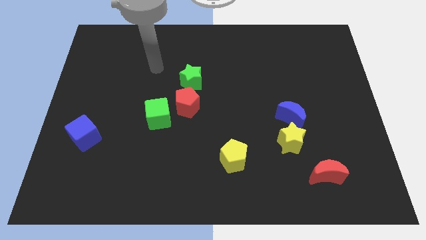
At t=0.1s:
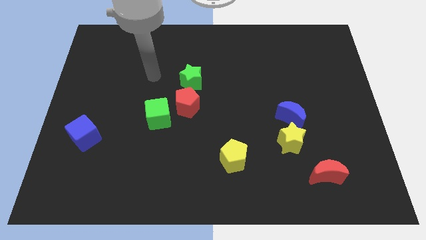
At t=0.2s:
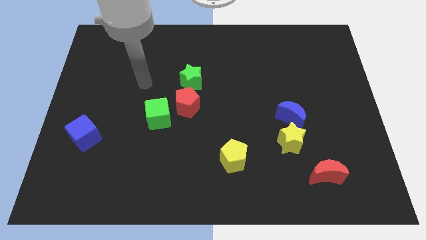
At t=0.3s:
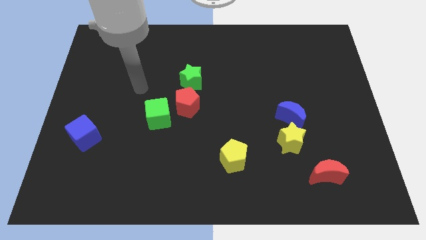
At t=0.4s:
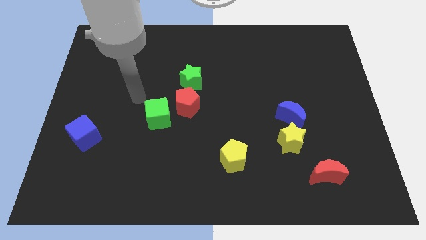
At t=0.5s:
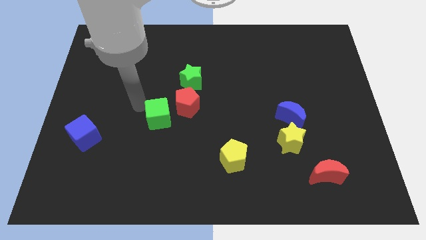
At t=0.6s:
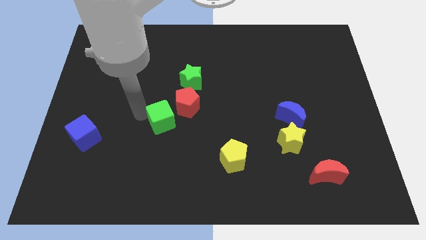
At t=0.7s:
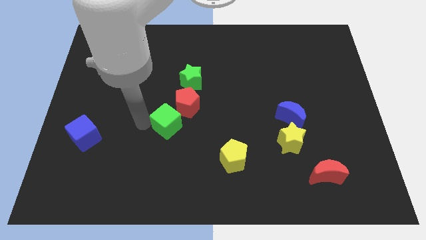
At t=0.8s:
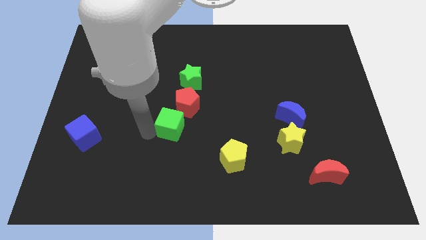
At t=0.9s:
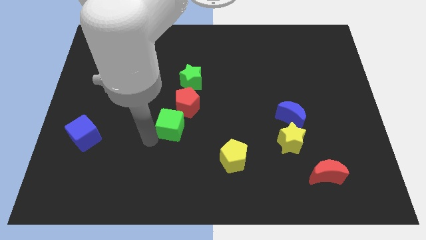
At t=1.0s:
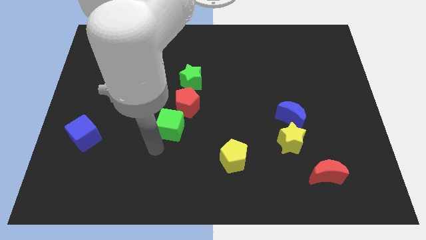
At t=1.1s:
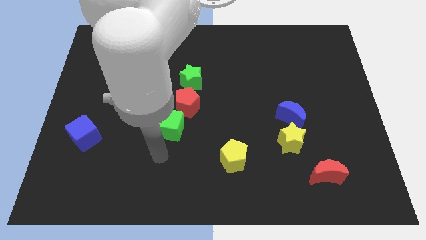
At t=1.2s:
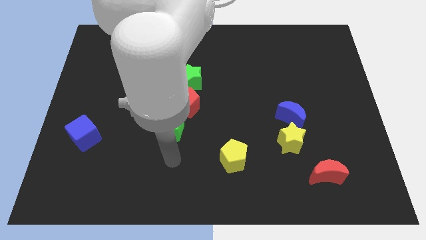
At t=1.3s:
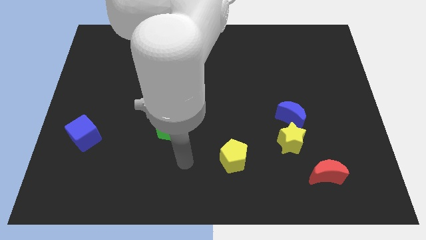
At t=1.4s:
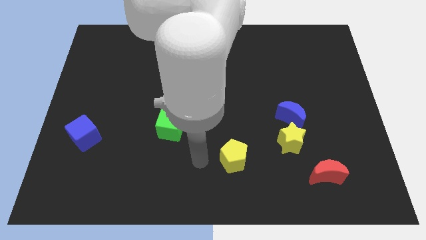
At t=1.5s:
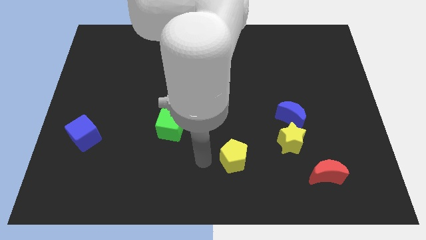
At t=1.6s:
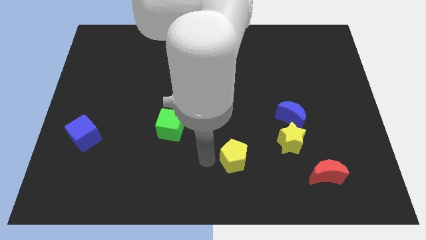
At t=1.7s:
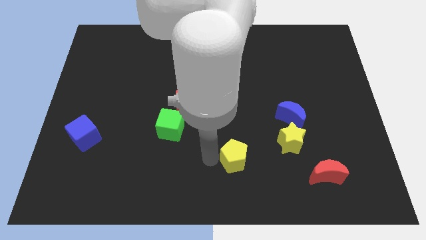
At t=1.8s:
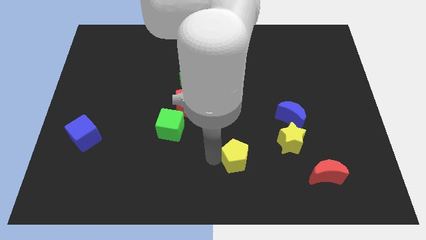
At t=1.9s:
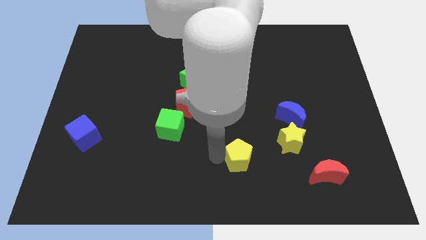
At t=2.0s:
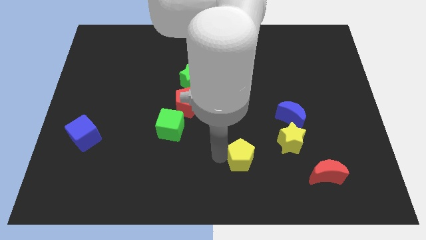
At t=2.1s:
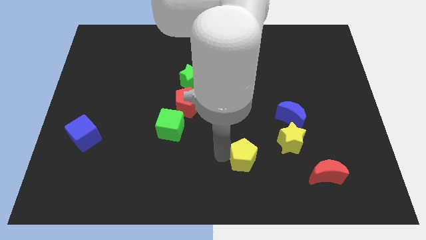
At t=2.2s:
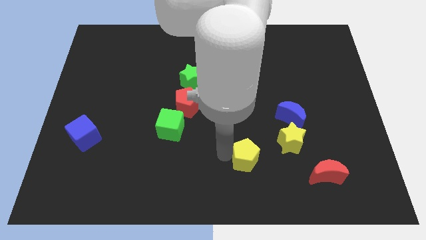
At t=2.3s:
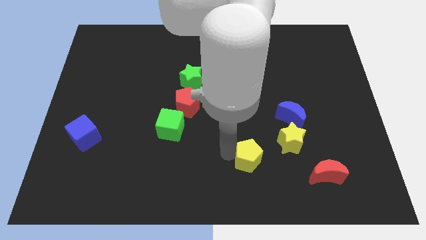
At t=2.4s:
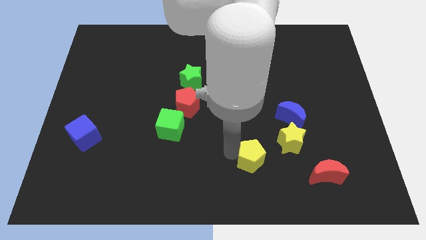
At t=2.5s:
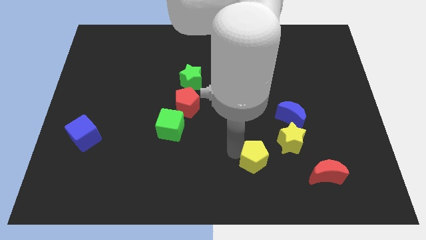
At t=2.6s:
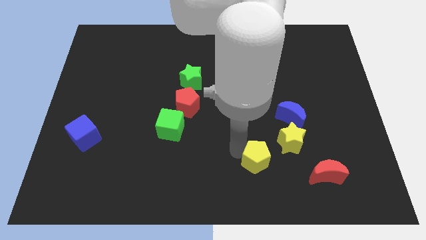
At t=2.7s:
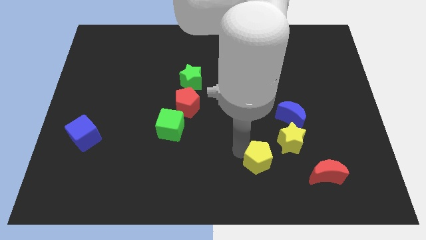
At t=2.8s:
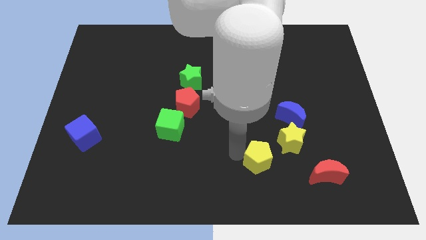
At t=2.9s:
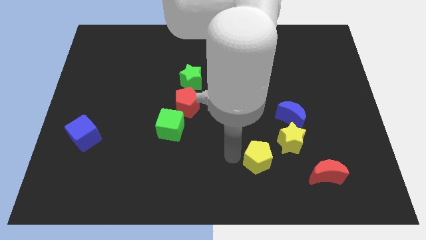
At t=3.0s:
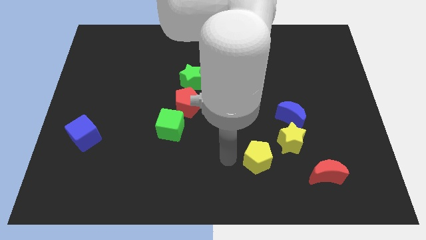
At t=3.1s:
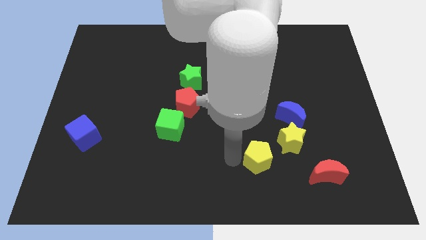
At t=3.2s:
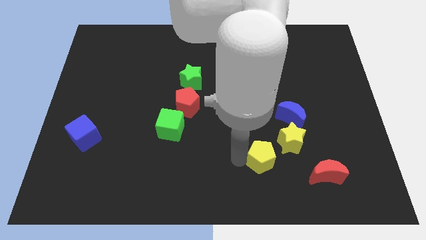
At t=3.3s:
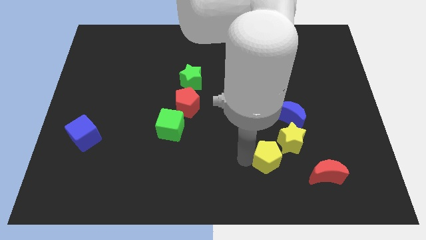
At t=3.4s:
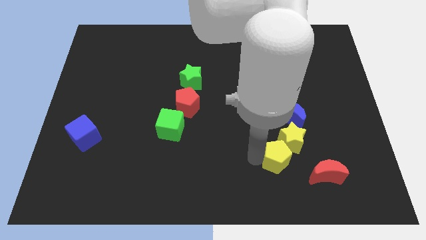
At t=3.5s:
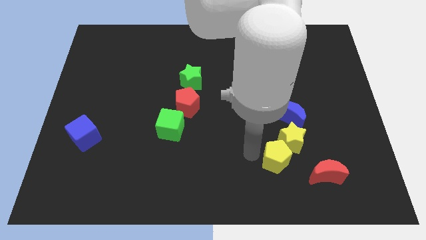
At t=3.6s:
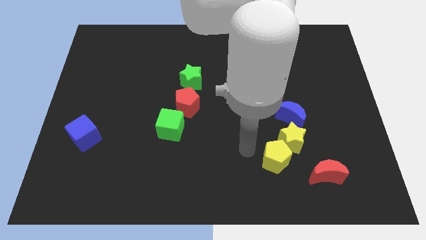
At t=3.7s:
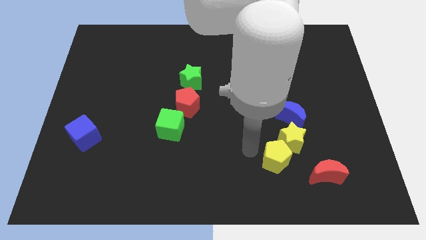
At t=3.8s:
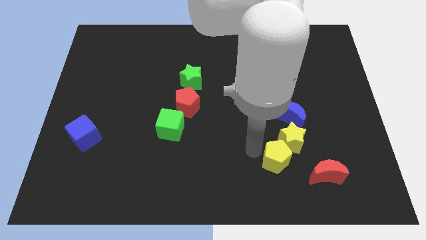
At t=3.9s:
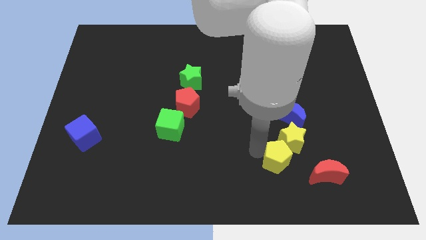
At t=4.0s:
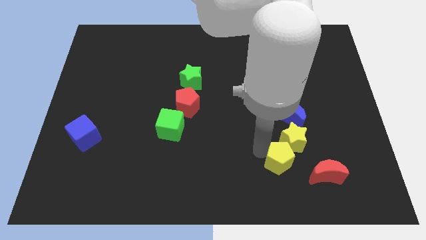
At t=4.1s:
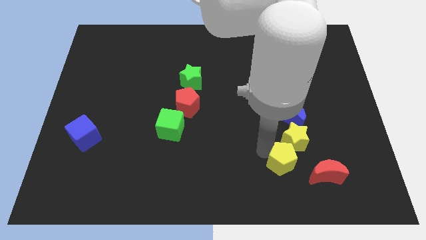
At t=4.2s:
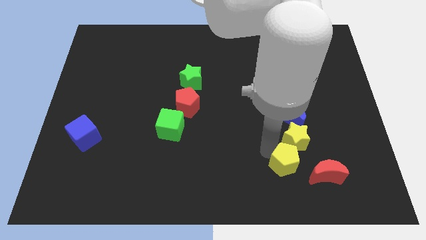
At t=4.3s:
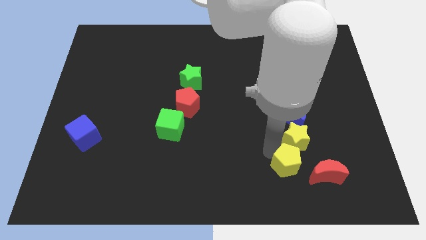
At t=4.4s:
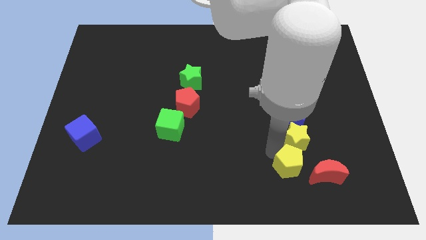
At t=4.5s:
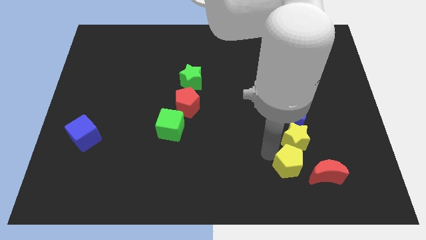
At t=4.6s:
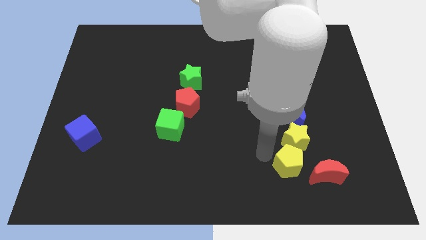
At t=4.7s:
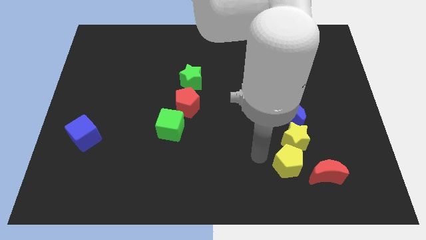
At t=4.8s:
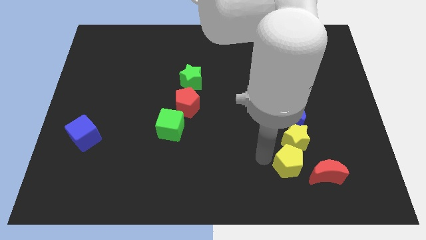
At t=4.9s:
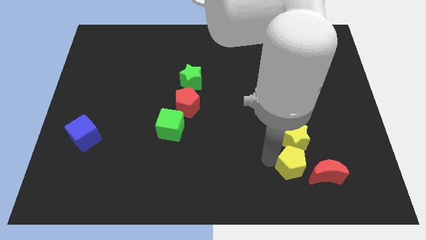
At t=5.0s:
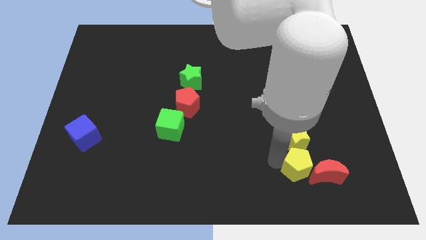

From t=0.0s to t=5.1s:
put the yellow pentagon to the red moon

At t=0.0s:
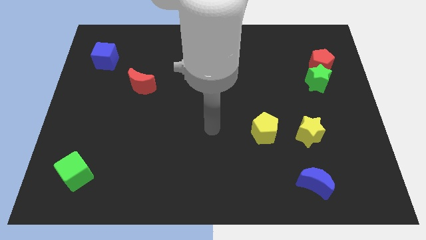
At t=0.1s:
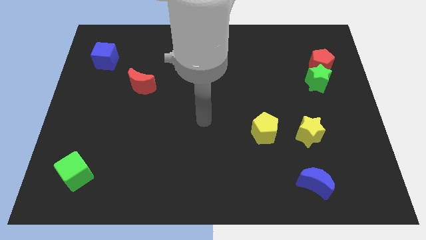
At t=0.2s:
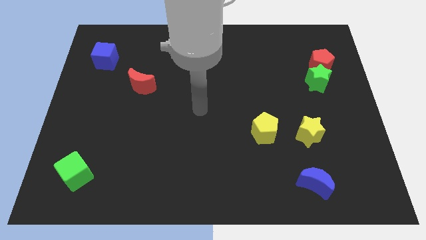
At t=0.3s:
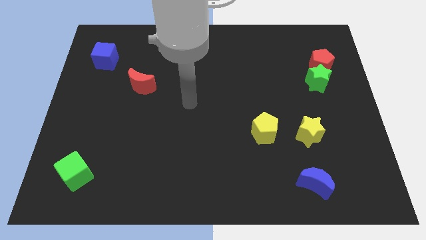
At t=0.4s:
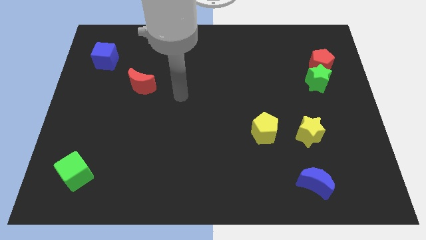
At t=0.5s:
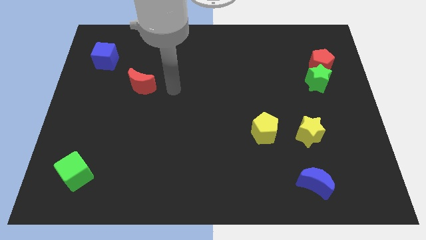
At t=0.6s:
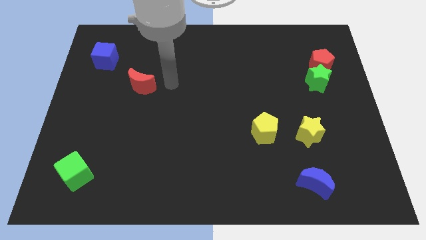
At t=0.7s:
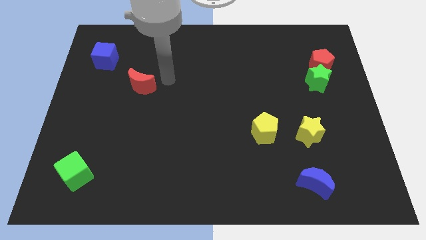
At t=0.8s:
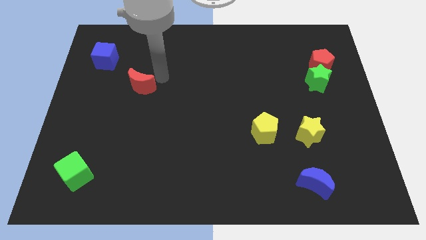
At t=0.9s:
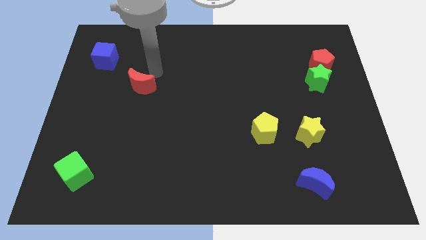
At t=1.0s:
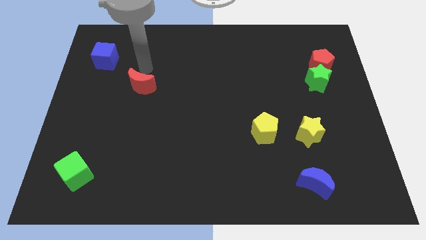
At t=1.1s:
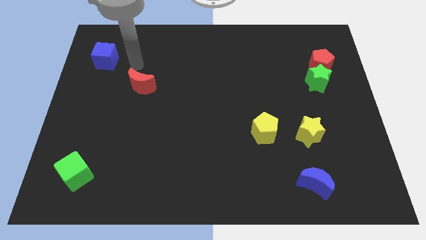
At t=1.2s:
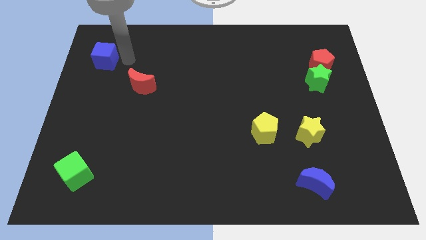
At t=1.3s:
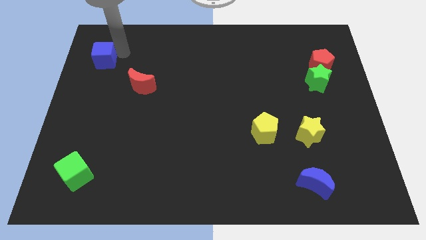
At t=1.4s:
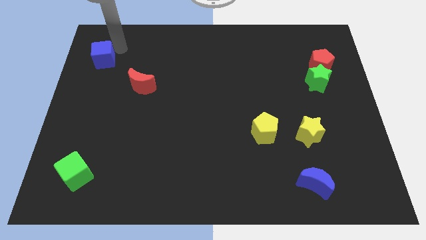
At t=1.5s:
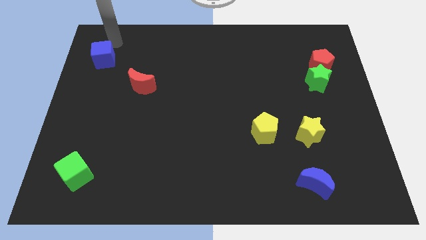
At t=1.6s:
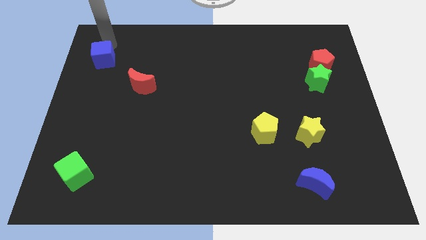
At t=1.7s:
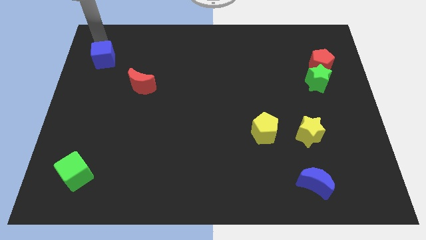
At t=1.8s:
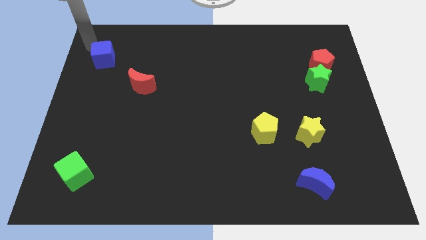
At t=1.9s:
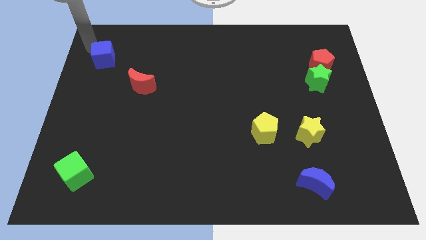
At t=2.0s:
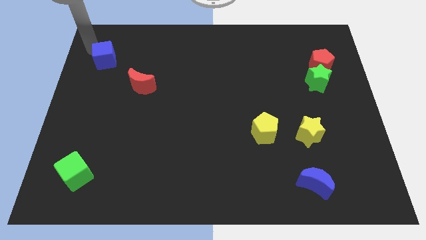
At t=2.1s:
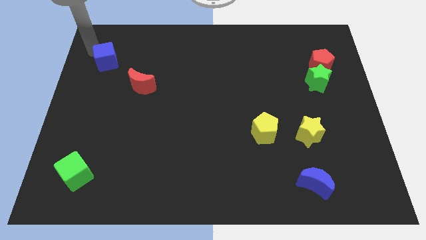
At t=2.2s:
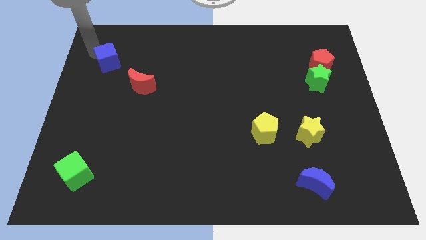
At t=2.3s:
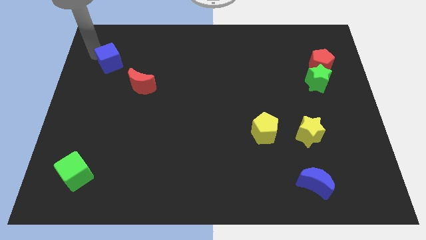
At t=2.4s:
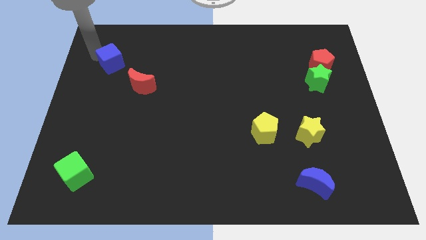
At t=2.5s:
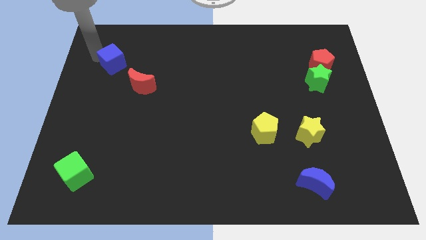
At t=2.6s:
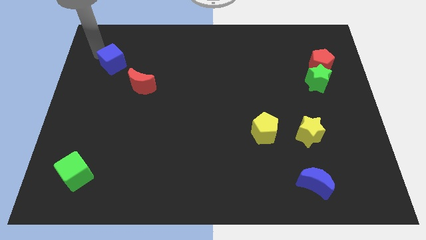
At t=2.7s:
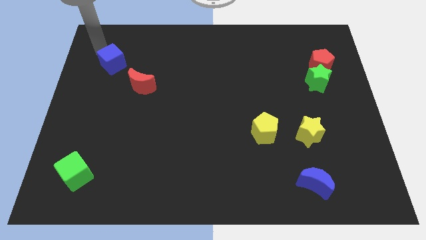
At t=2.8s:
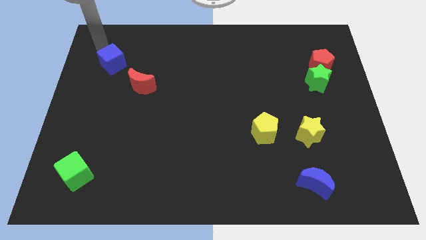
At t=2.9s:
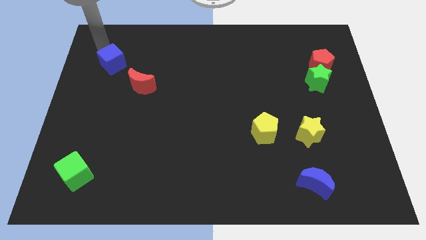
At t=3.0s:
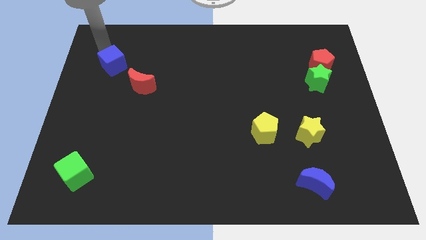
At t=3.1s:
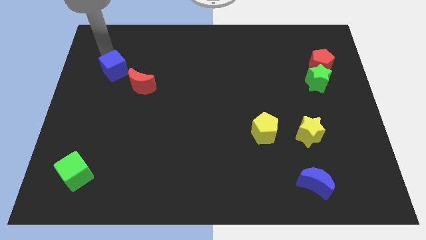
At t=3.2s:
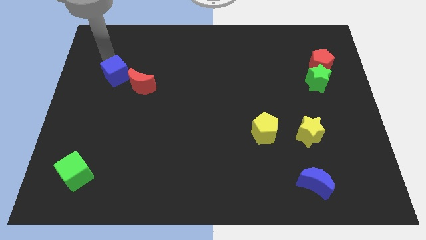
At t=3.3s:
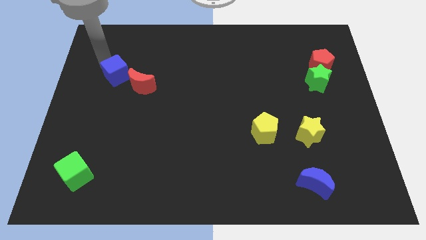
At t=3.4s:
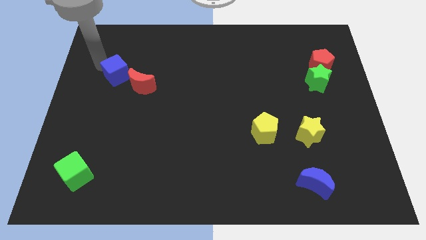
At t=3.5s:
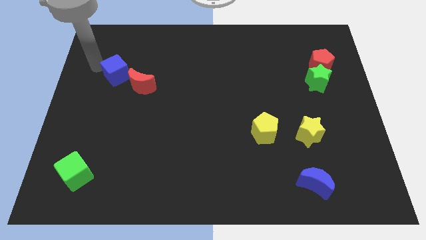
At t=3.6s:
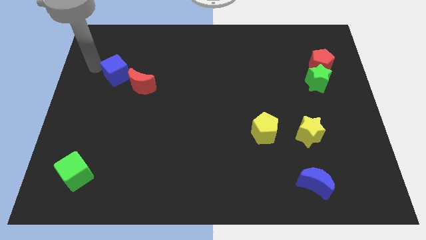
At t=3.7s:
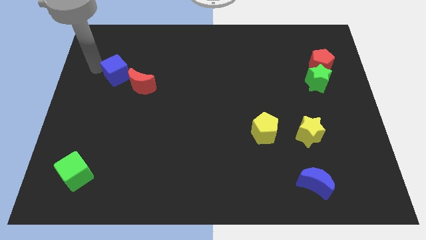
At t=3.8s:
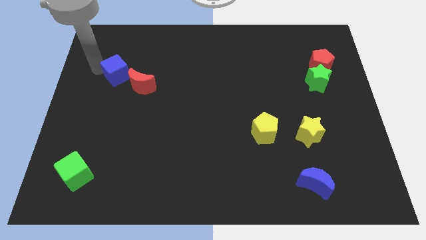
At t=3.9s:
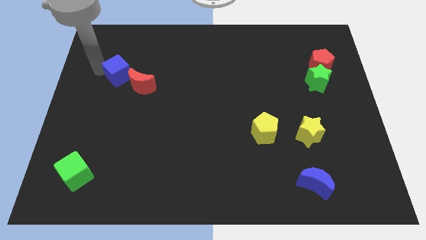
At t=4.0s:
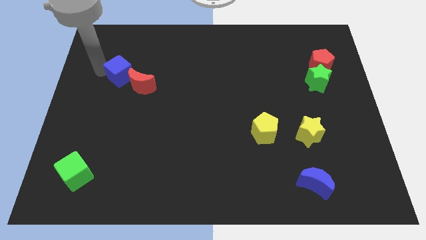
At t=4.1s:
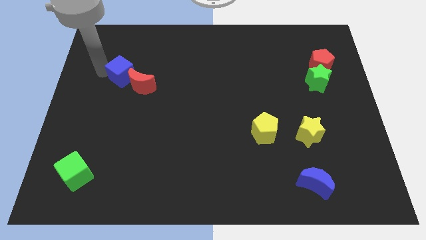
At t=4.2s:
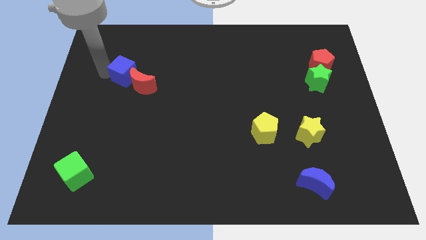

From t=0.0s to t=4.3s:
move the blue cube to the red moon
